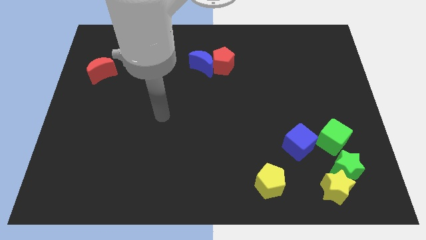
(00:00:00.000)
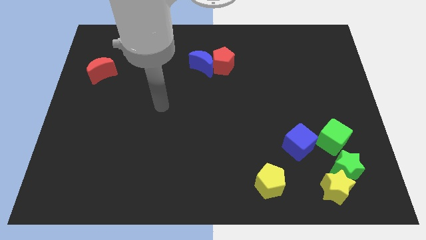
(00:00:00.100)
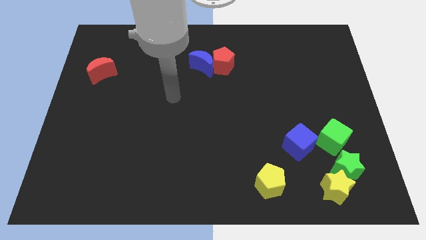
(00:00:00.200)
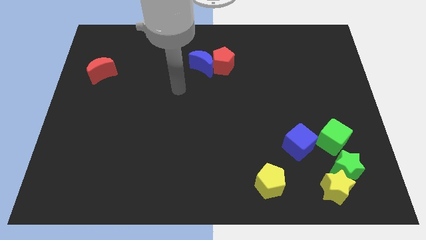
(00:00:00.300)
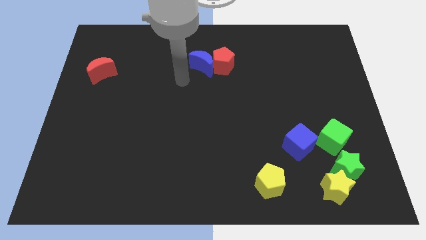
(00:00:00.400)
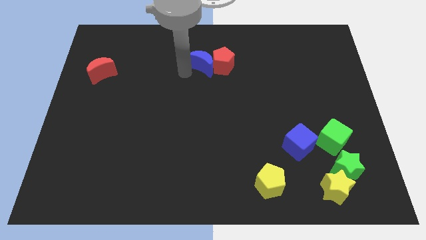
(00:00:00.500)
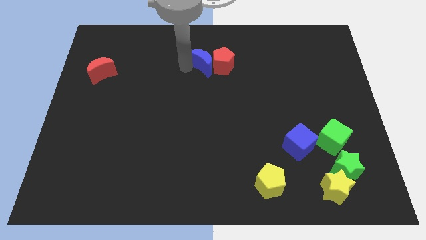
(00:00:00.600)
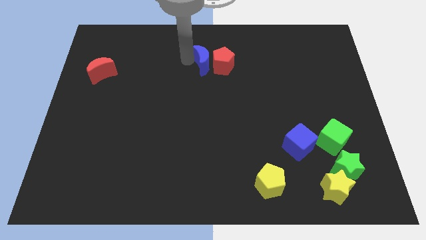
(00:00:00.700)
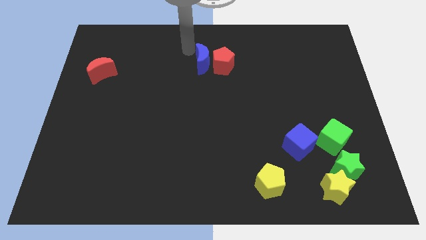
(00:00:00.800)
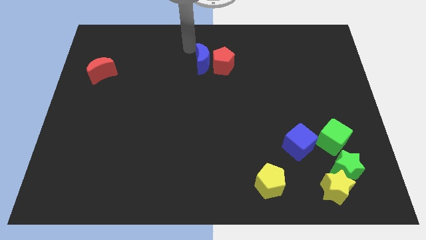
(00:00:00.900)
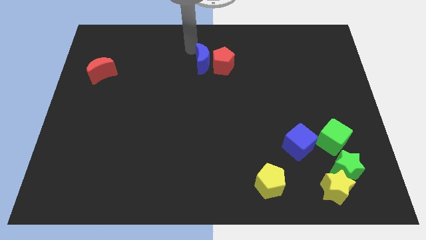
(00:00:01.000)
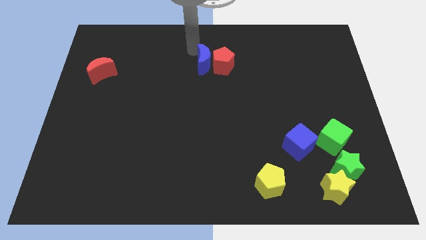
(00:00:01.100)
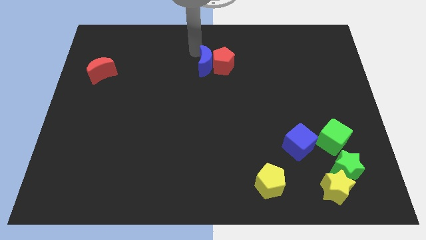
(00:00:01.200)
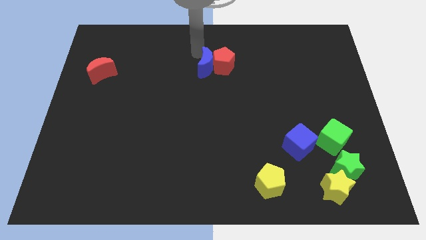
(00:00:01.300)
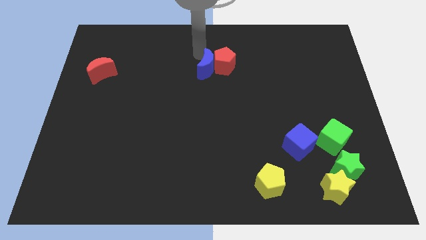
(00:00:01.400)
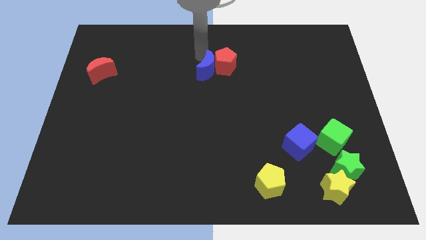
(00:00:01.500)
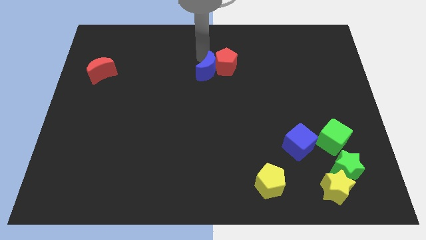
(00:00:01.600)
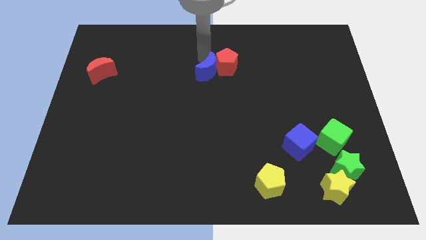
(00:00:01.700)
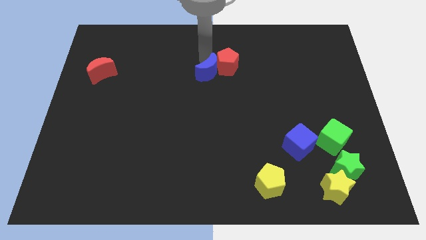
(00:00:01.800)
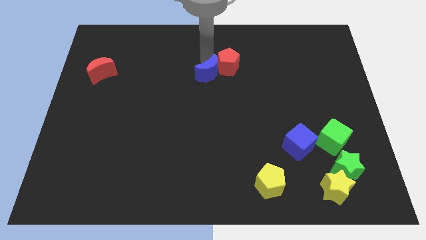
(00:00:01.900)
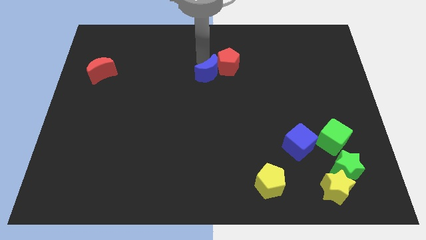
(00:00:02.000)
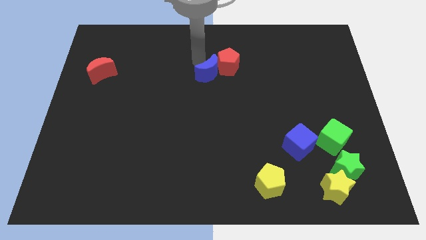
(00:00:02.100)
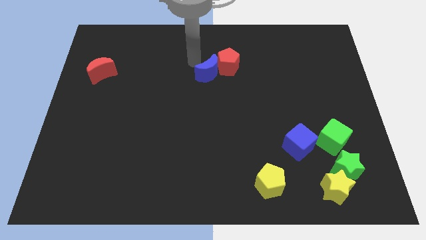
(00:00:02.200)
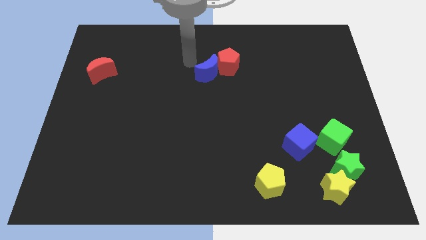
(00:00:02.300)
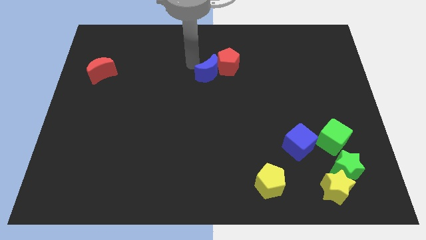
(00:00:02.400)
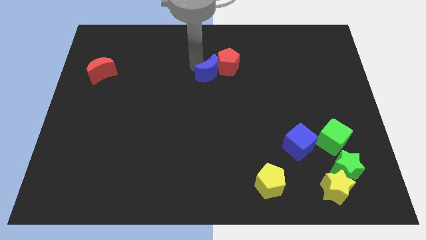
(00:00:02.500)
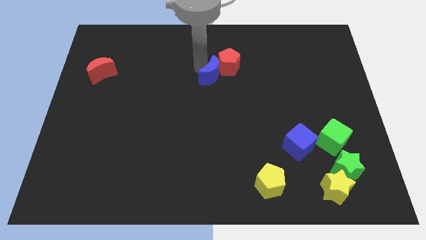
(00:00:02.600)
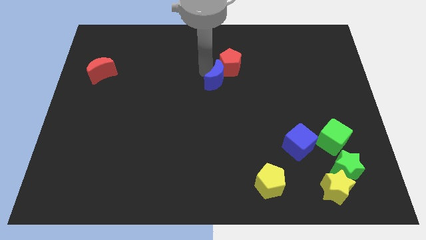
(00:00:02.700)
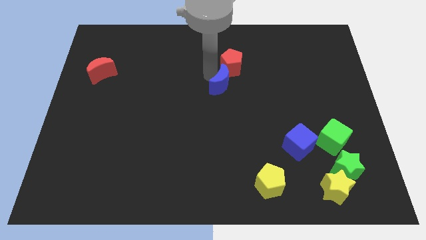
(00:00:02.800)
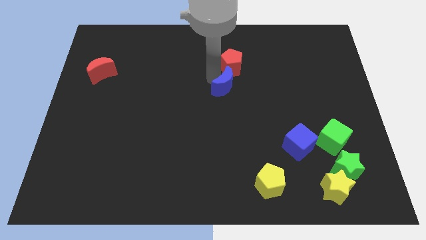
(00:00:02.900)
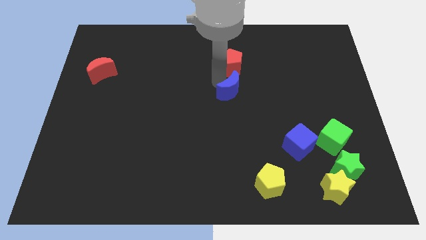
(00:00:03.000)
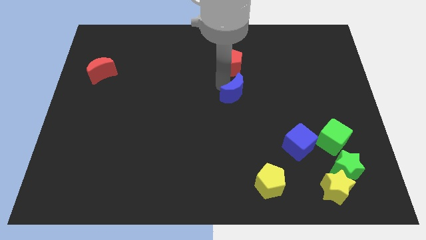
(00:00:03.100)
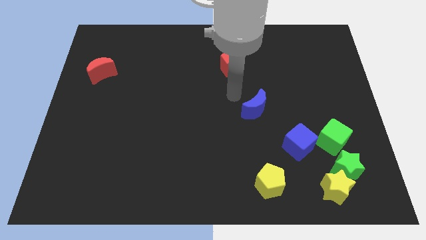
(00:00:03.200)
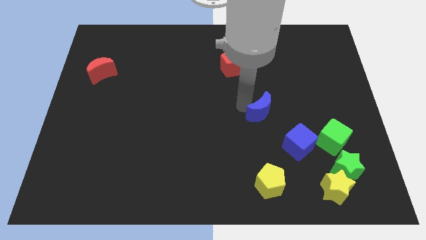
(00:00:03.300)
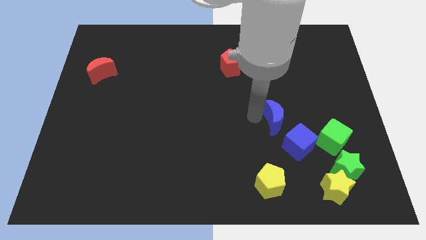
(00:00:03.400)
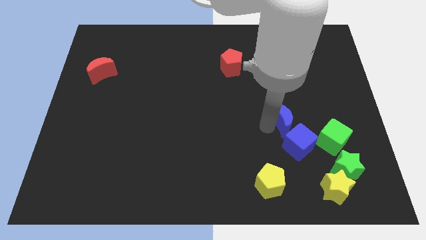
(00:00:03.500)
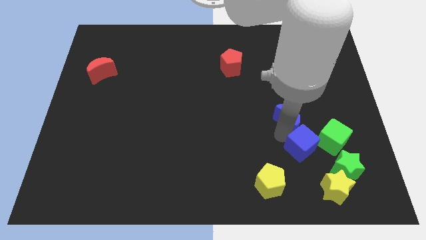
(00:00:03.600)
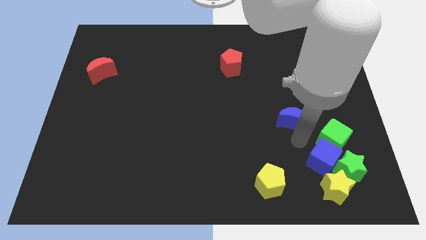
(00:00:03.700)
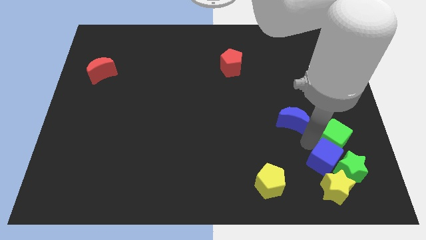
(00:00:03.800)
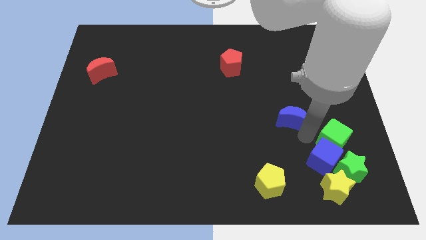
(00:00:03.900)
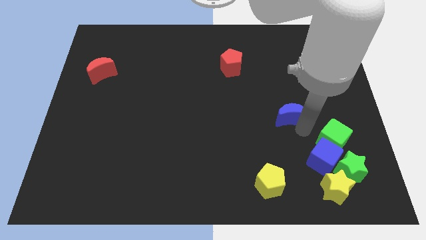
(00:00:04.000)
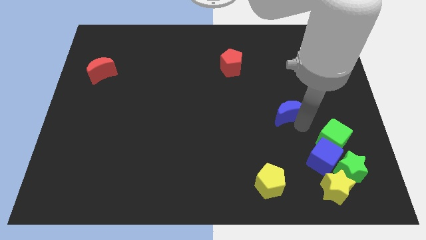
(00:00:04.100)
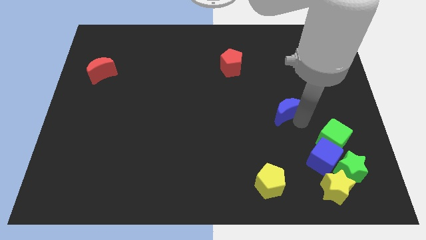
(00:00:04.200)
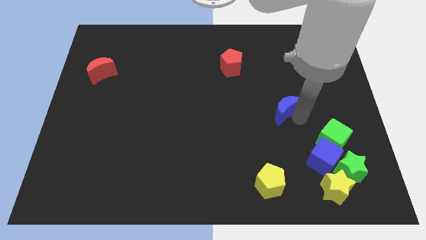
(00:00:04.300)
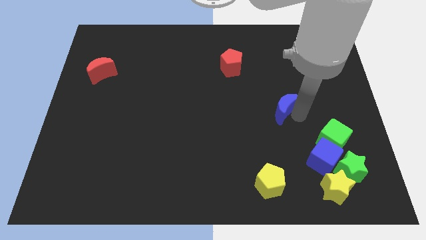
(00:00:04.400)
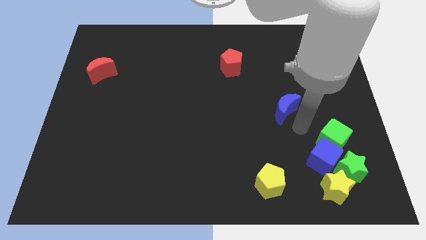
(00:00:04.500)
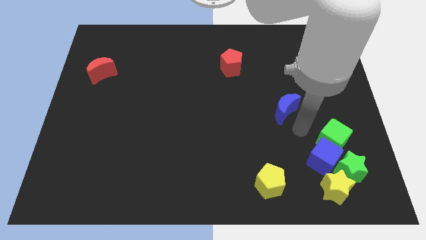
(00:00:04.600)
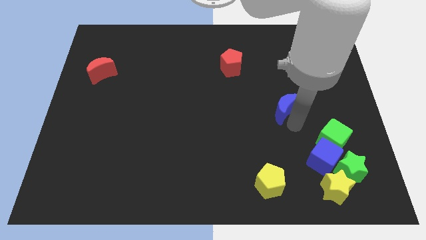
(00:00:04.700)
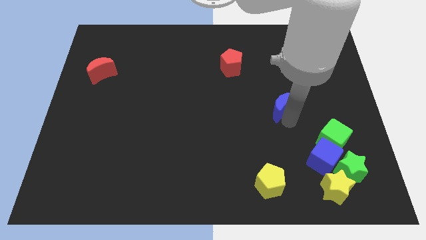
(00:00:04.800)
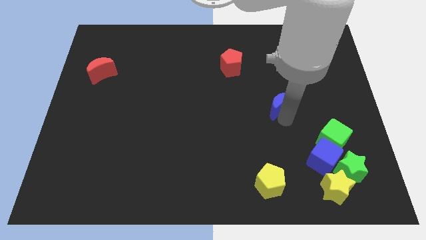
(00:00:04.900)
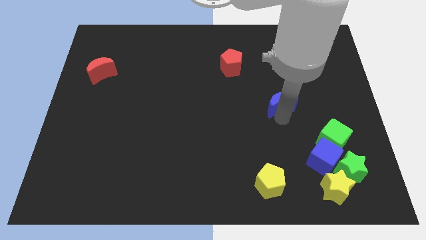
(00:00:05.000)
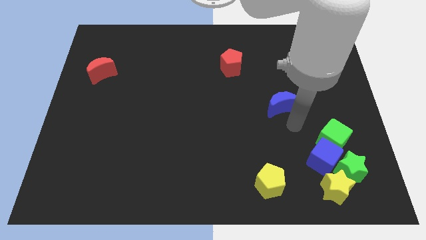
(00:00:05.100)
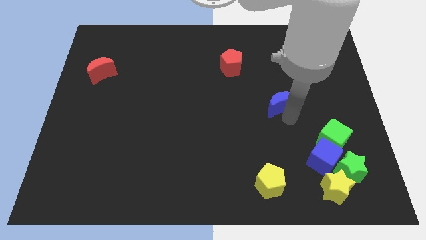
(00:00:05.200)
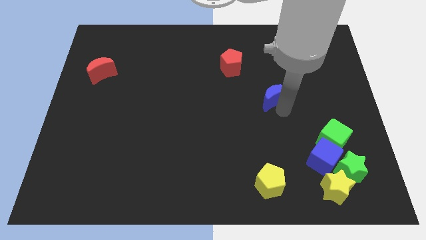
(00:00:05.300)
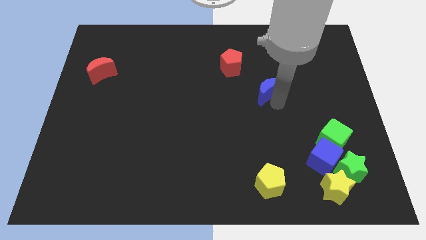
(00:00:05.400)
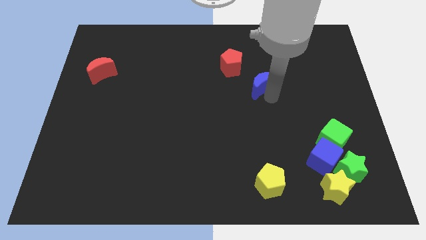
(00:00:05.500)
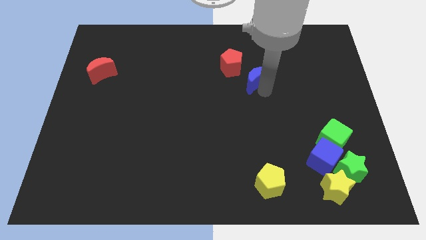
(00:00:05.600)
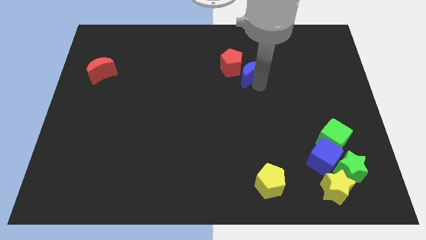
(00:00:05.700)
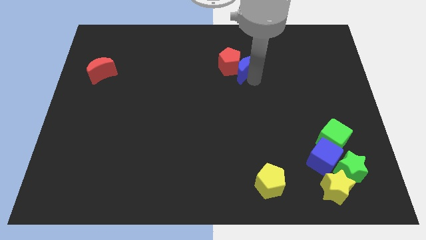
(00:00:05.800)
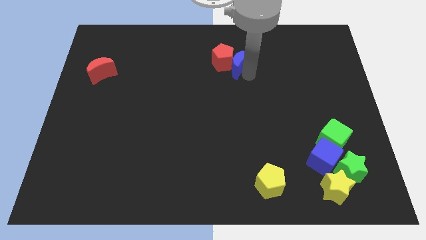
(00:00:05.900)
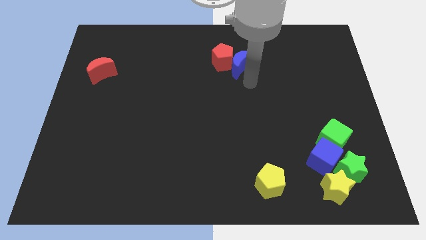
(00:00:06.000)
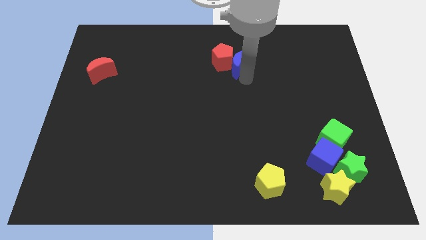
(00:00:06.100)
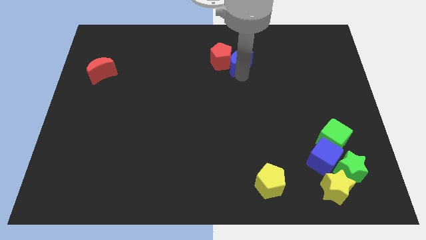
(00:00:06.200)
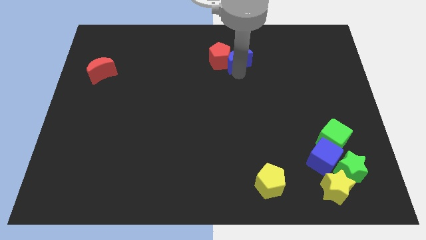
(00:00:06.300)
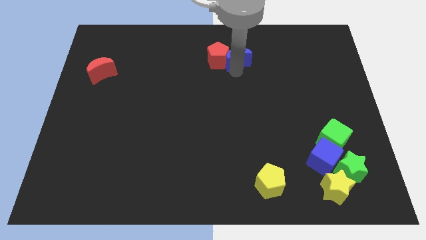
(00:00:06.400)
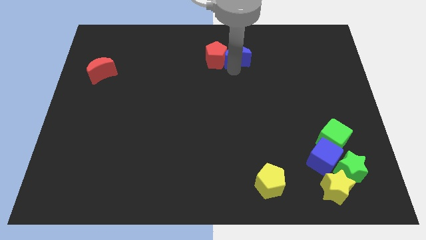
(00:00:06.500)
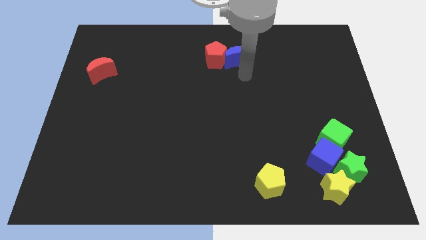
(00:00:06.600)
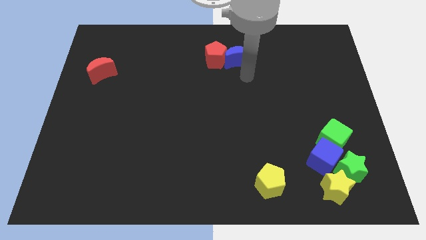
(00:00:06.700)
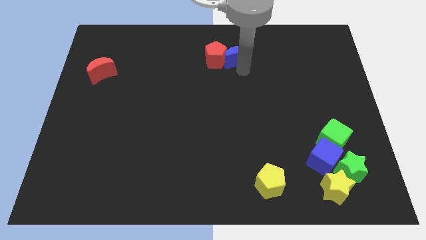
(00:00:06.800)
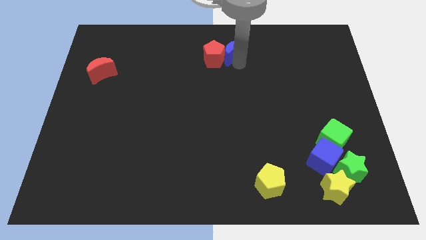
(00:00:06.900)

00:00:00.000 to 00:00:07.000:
move the blue moon to the towards your base
